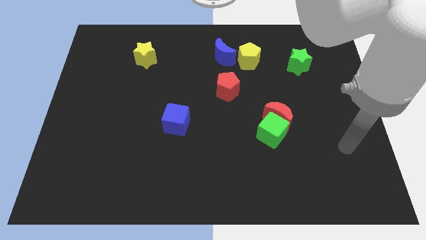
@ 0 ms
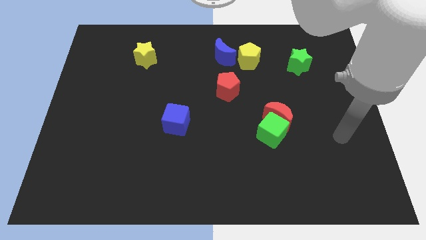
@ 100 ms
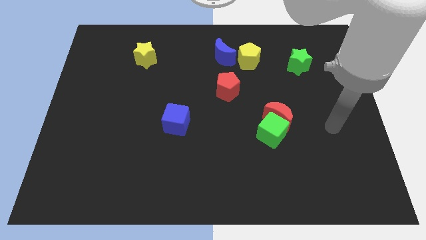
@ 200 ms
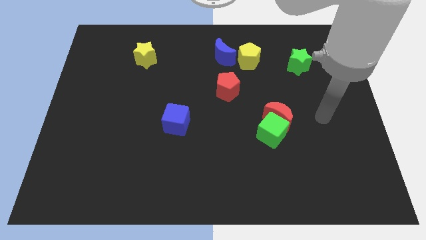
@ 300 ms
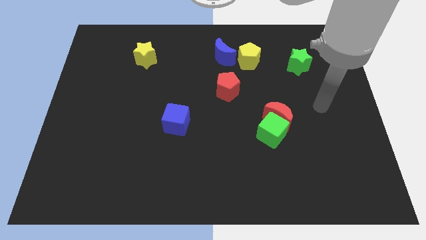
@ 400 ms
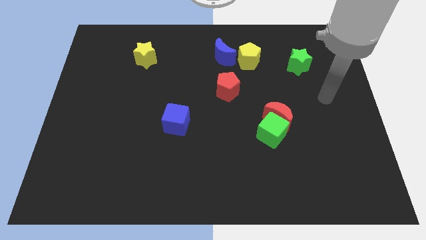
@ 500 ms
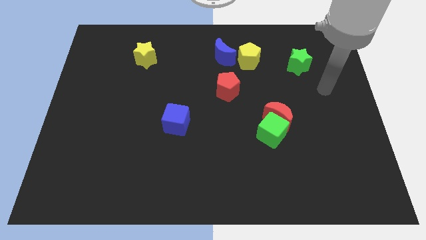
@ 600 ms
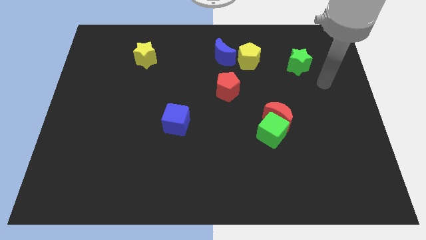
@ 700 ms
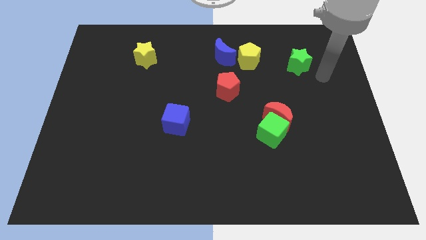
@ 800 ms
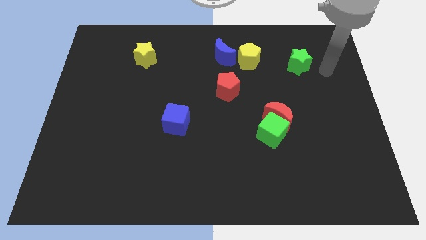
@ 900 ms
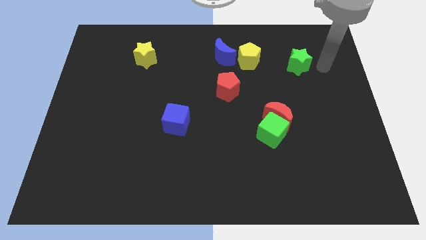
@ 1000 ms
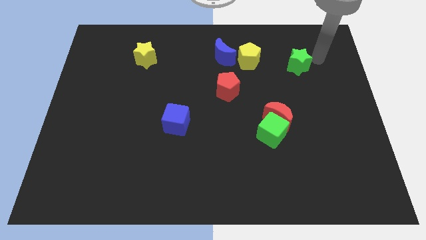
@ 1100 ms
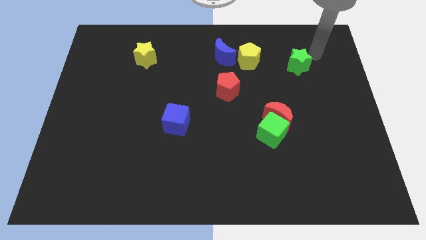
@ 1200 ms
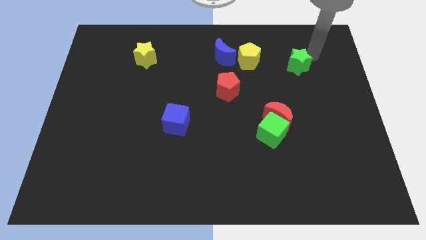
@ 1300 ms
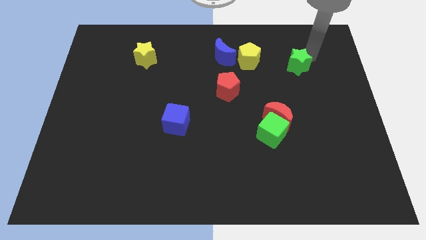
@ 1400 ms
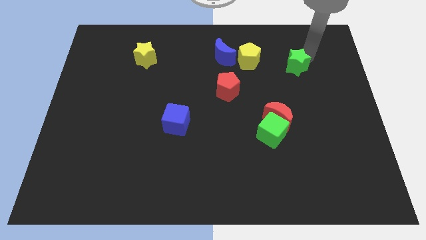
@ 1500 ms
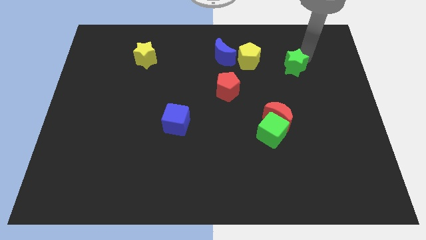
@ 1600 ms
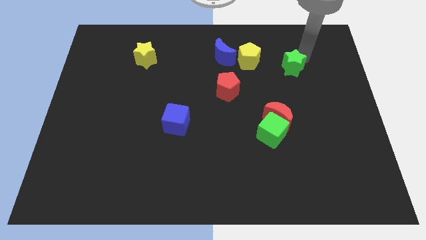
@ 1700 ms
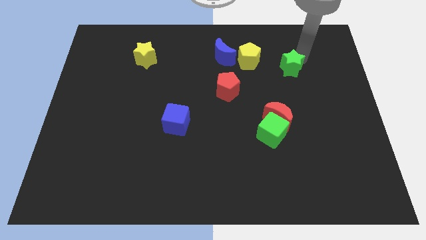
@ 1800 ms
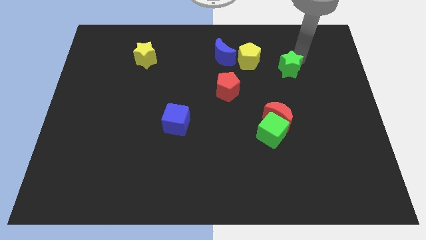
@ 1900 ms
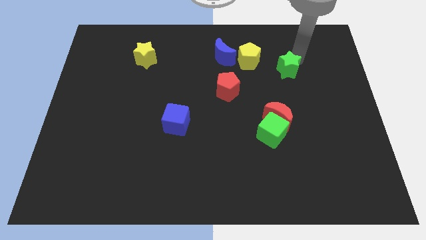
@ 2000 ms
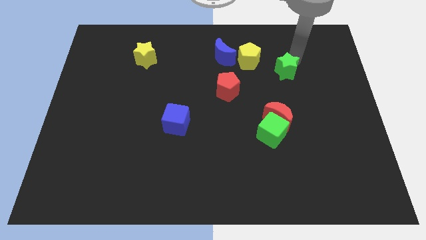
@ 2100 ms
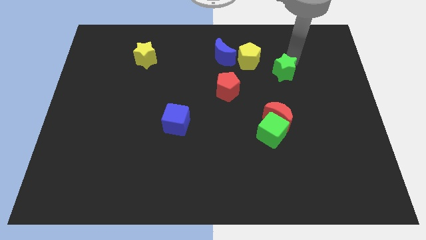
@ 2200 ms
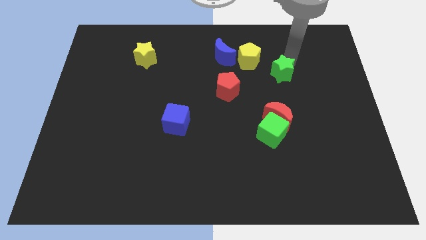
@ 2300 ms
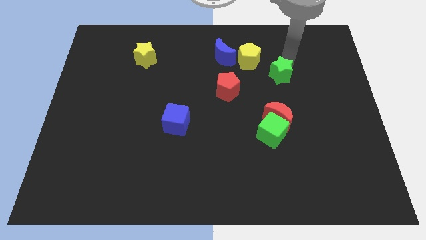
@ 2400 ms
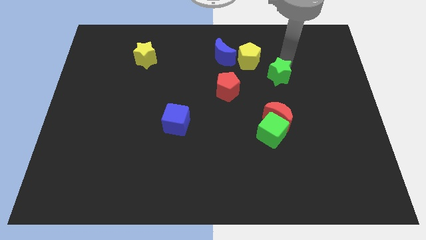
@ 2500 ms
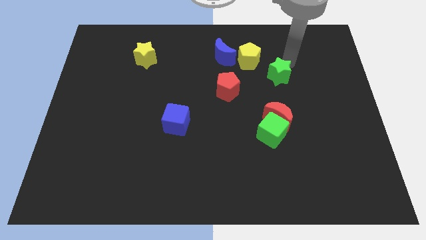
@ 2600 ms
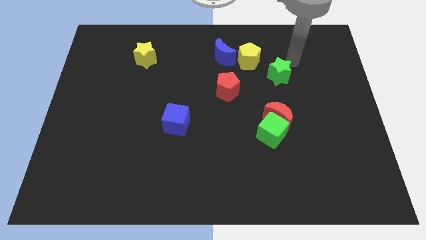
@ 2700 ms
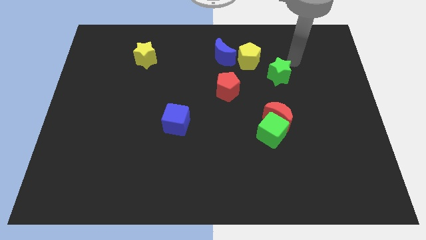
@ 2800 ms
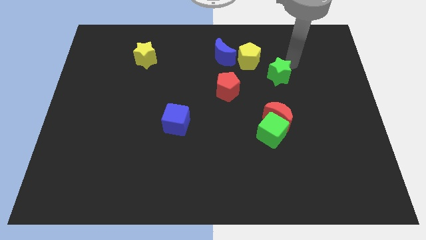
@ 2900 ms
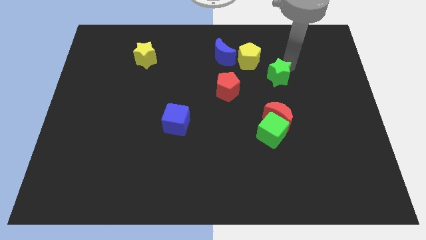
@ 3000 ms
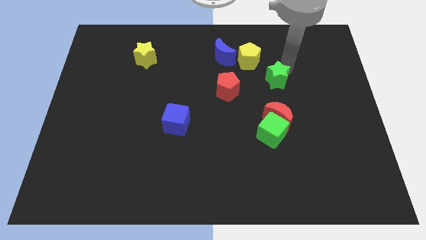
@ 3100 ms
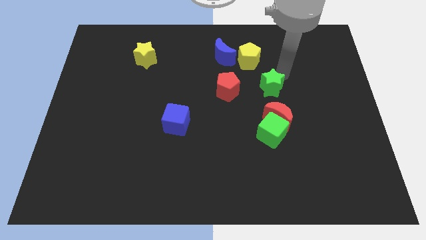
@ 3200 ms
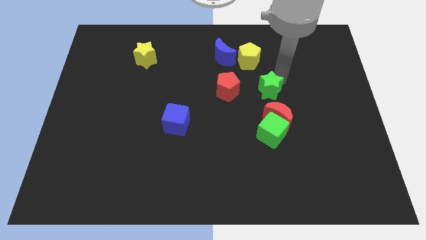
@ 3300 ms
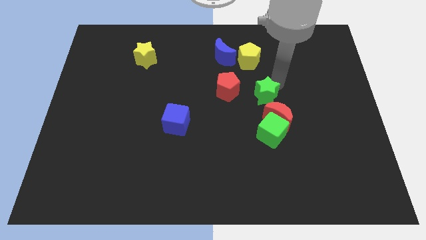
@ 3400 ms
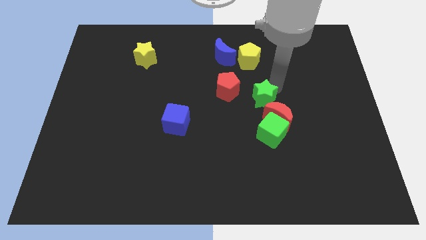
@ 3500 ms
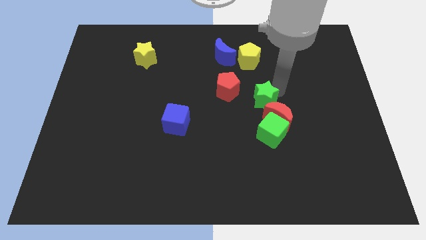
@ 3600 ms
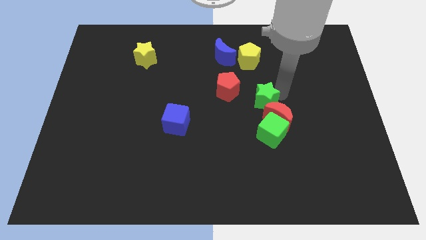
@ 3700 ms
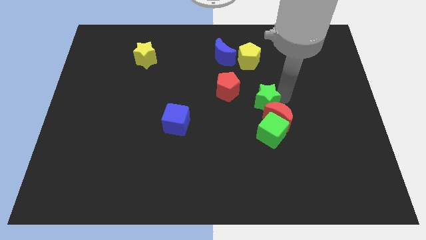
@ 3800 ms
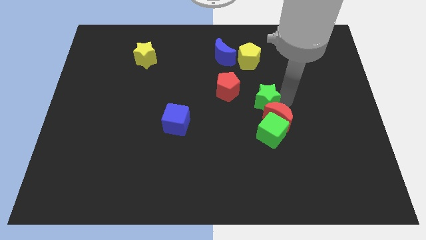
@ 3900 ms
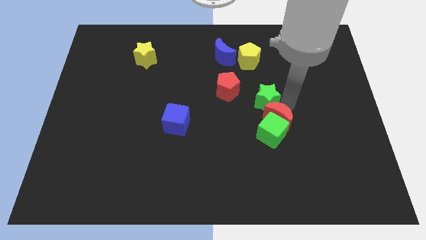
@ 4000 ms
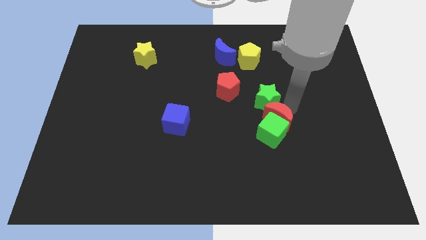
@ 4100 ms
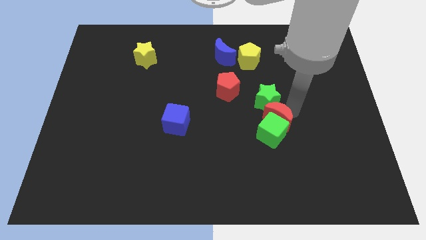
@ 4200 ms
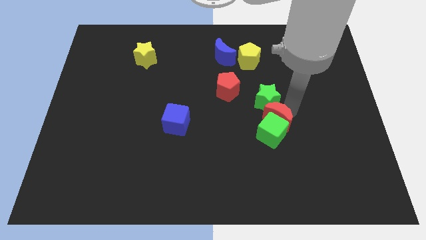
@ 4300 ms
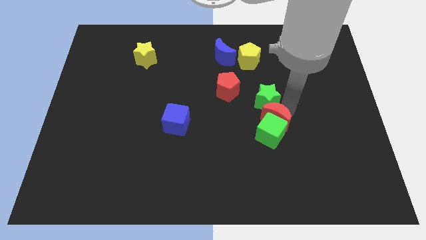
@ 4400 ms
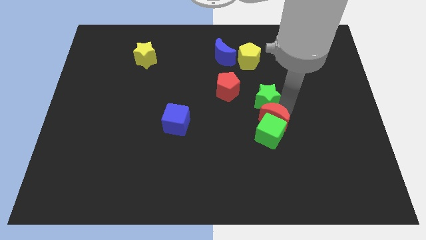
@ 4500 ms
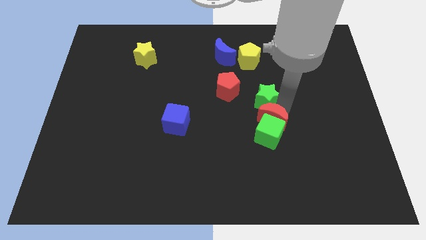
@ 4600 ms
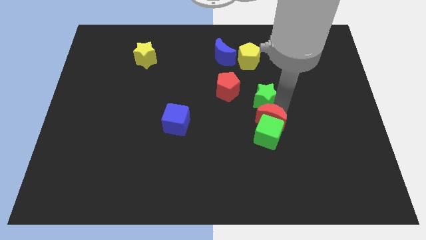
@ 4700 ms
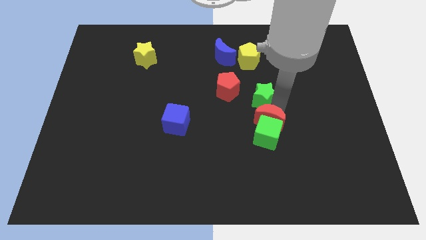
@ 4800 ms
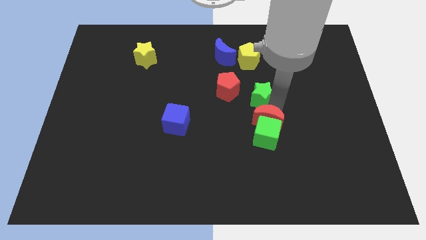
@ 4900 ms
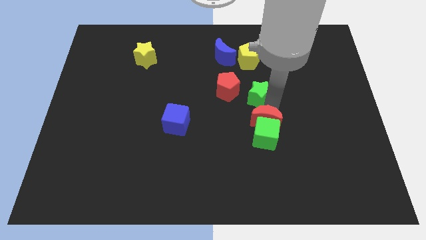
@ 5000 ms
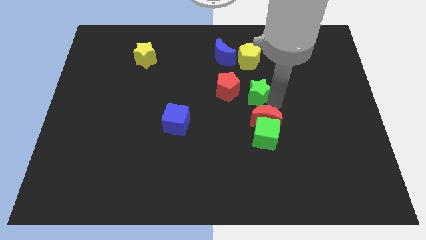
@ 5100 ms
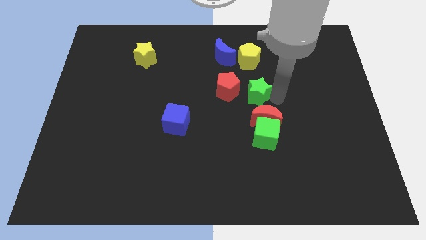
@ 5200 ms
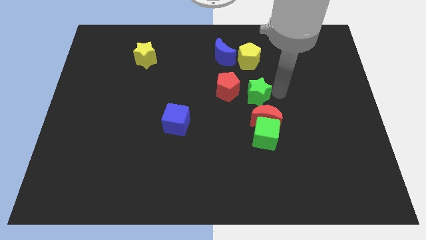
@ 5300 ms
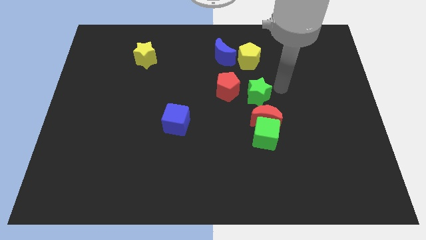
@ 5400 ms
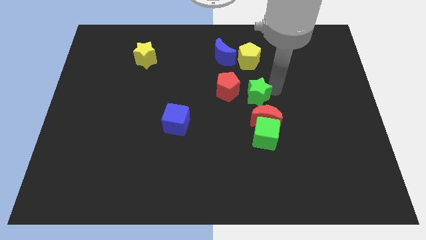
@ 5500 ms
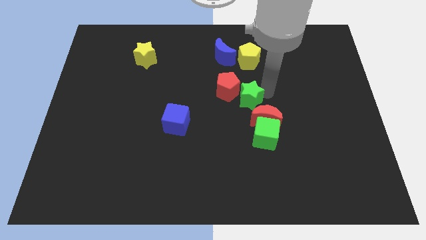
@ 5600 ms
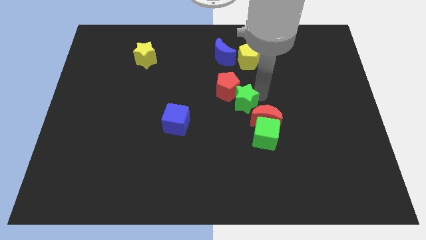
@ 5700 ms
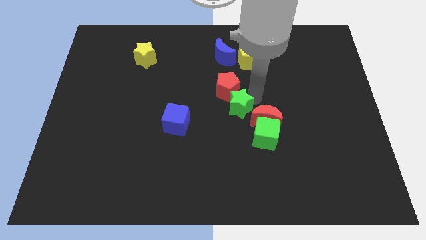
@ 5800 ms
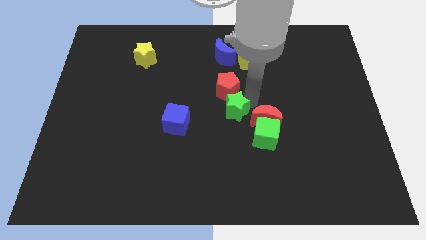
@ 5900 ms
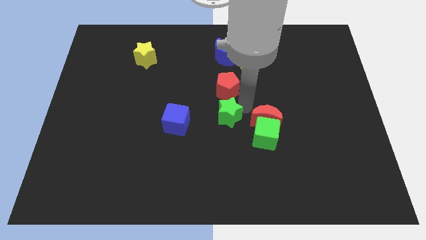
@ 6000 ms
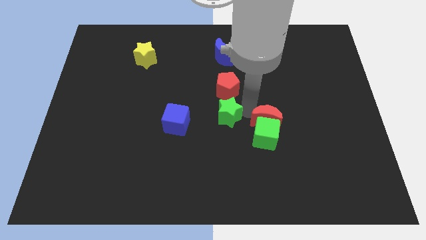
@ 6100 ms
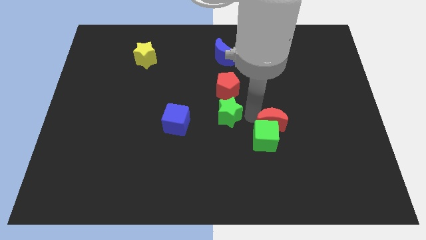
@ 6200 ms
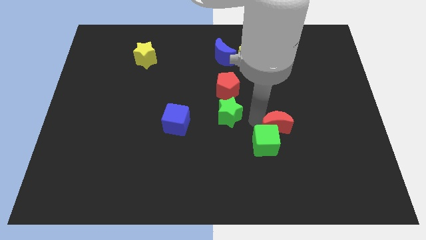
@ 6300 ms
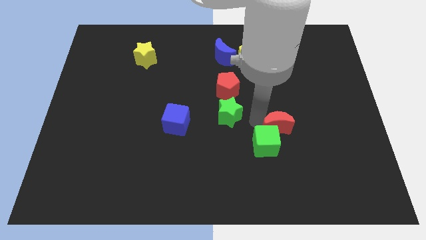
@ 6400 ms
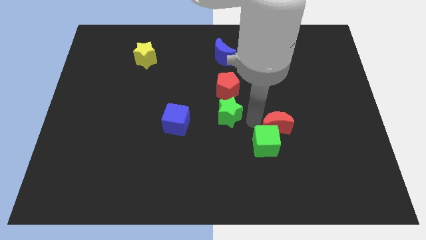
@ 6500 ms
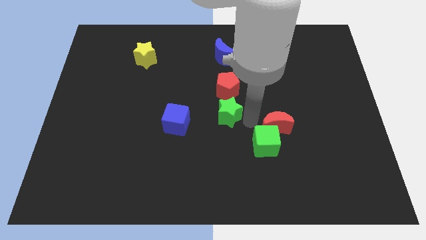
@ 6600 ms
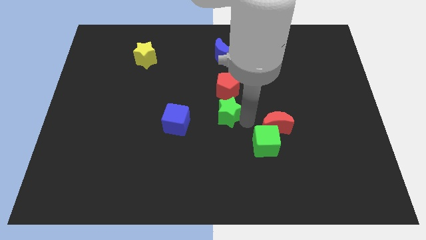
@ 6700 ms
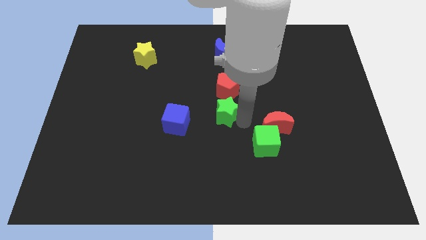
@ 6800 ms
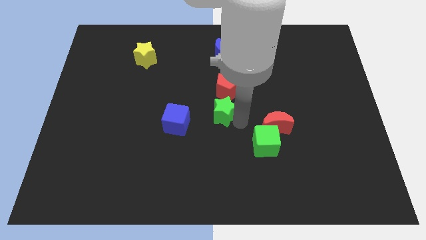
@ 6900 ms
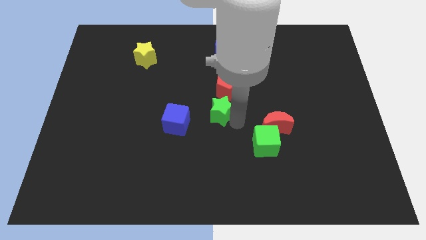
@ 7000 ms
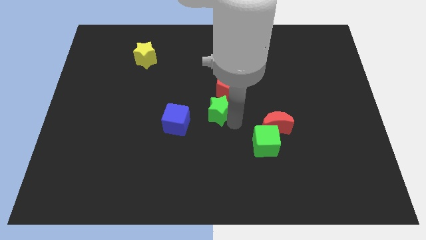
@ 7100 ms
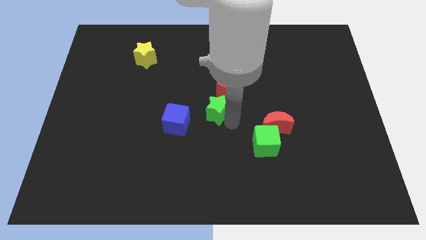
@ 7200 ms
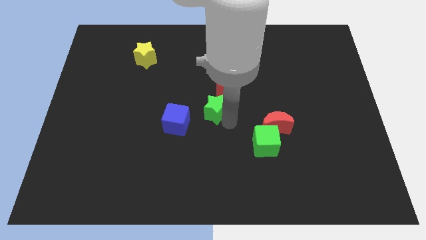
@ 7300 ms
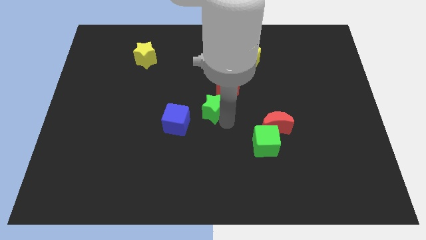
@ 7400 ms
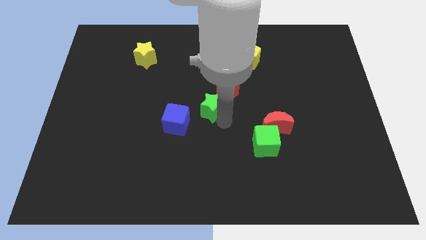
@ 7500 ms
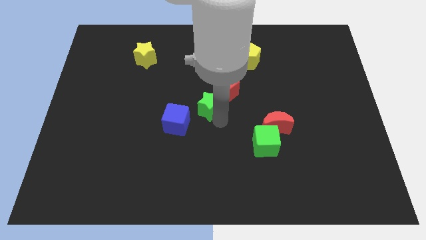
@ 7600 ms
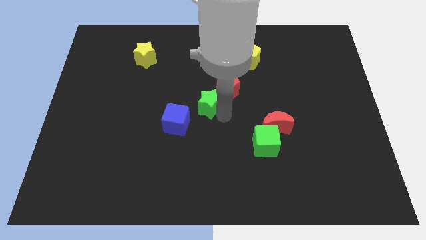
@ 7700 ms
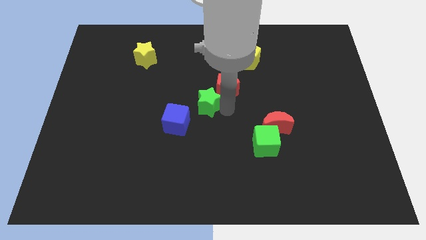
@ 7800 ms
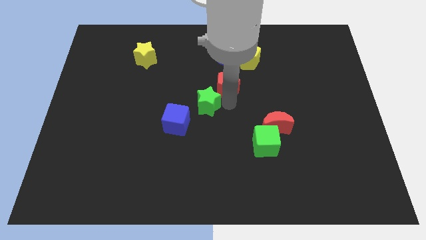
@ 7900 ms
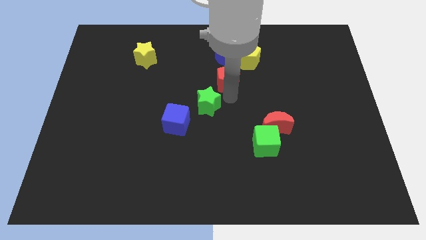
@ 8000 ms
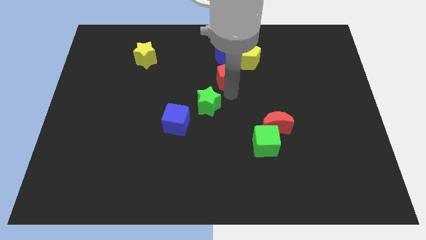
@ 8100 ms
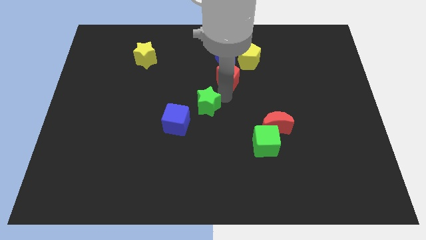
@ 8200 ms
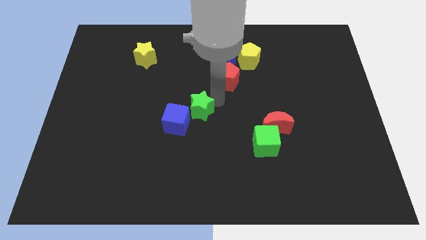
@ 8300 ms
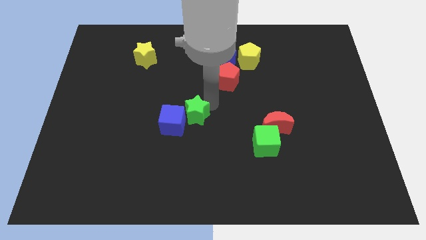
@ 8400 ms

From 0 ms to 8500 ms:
put the green star next to the blue cube
